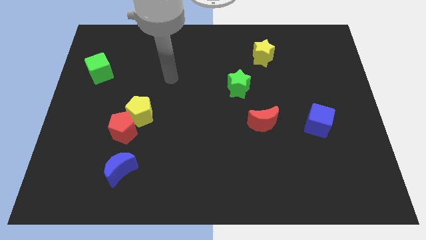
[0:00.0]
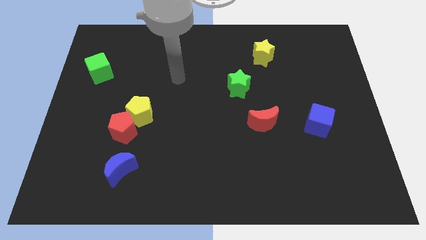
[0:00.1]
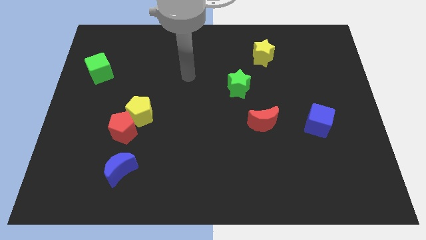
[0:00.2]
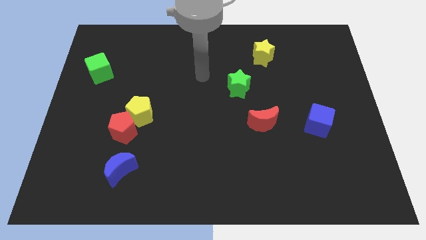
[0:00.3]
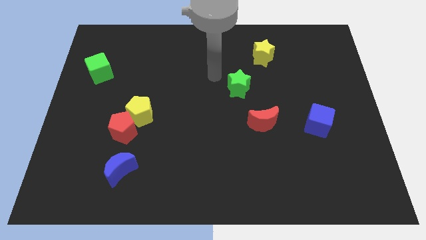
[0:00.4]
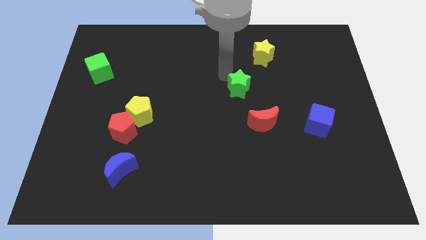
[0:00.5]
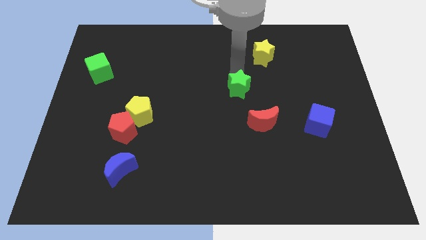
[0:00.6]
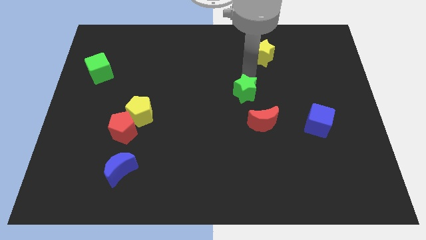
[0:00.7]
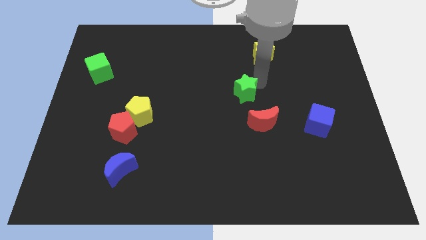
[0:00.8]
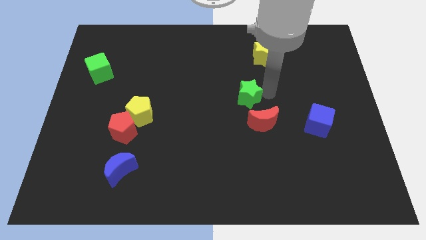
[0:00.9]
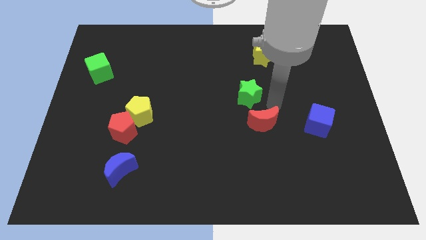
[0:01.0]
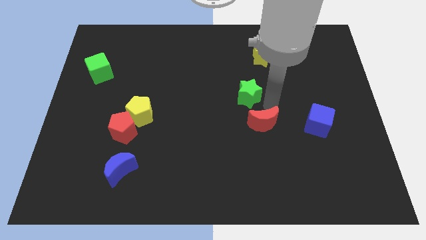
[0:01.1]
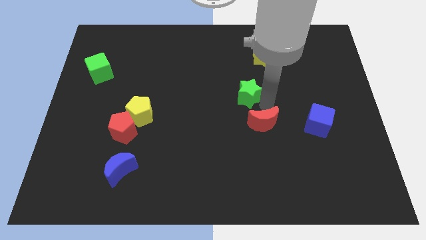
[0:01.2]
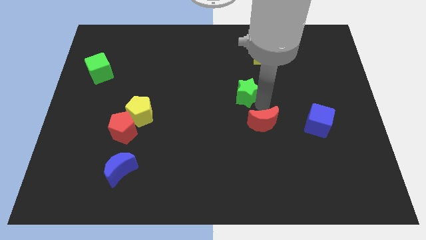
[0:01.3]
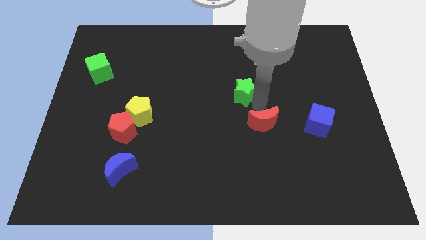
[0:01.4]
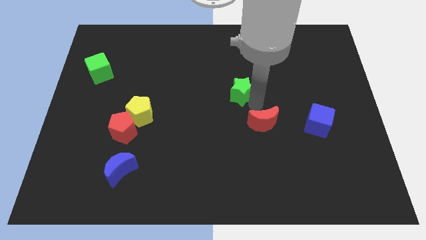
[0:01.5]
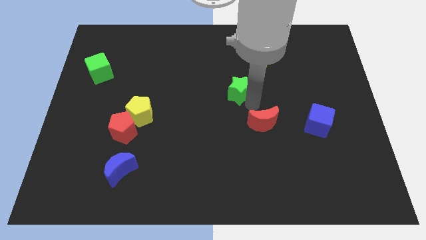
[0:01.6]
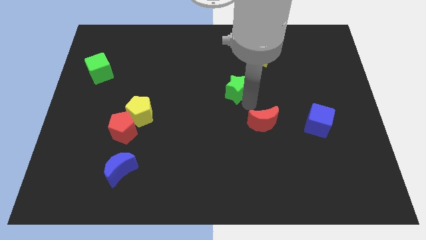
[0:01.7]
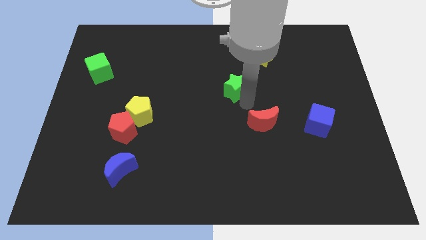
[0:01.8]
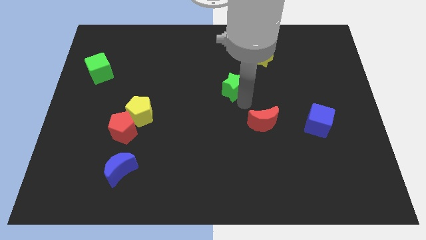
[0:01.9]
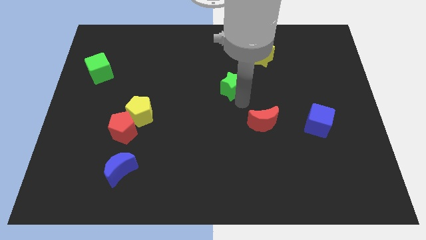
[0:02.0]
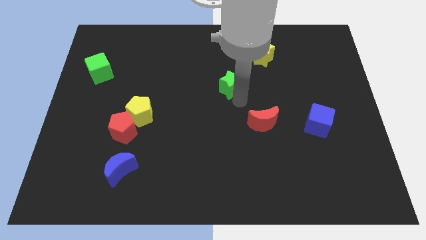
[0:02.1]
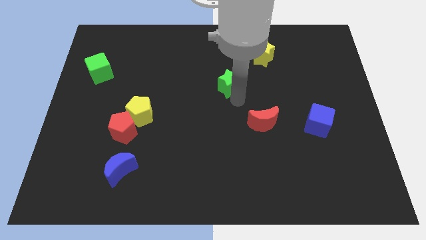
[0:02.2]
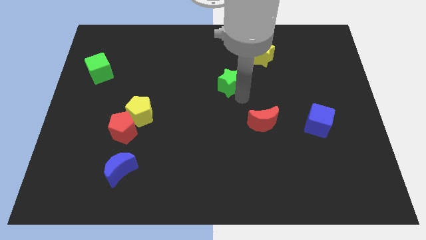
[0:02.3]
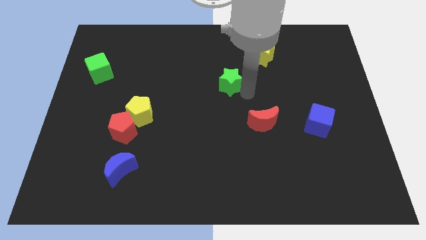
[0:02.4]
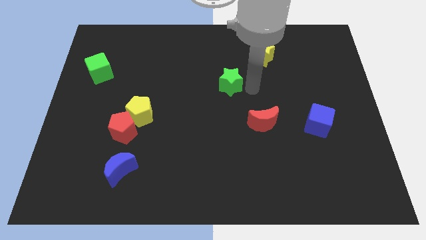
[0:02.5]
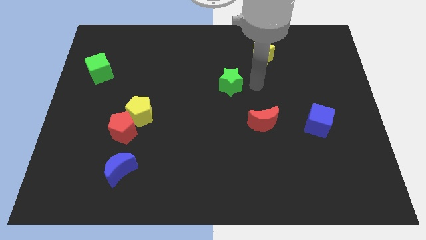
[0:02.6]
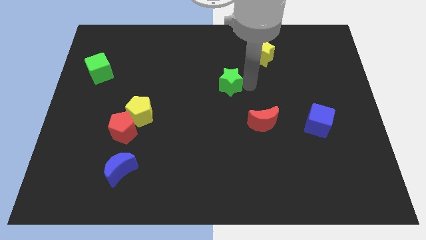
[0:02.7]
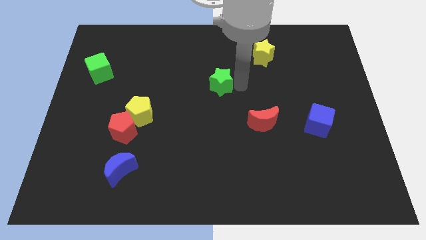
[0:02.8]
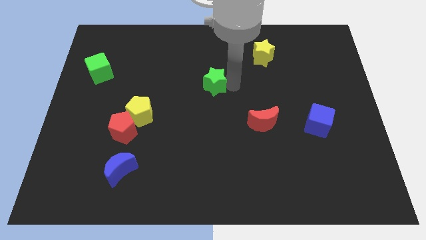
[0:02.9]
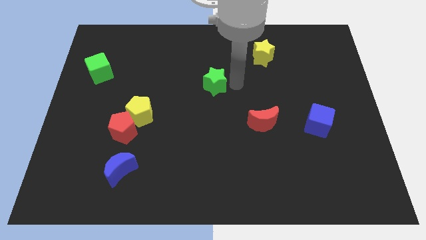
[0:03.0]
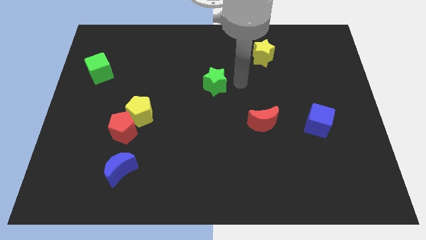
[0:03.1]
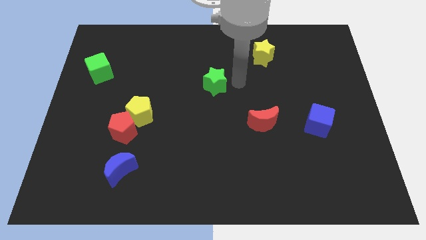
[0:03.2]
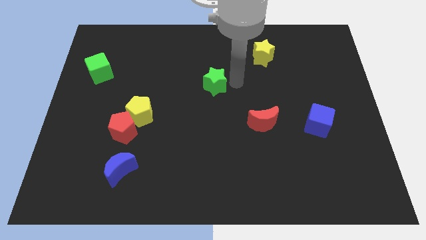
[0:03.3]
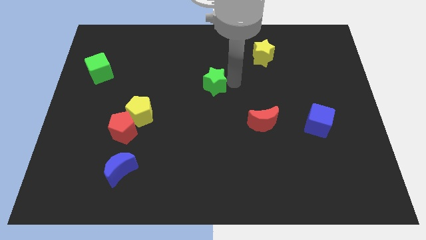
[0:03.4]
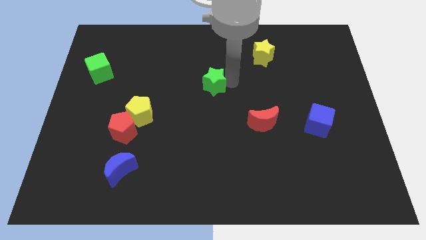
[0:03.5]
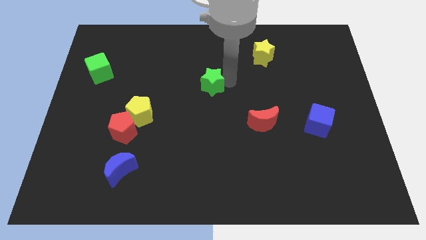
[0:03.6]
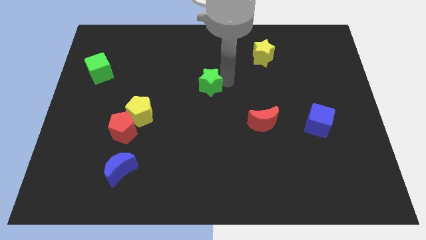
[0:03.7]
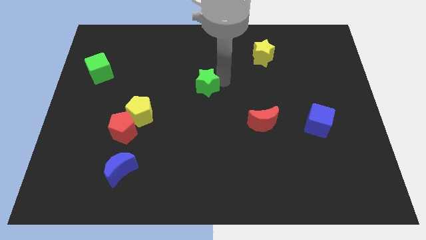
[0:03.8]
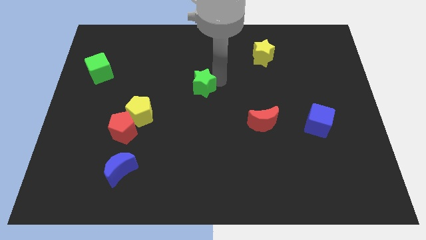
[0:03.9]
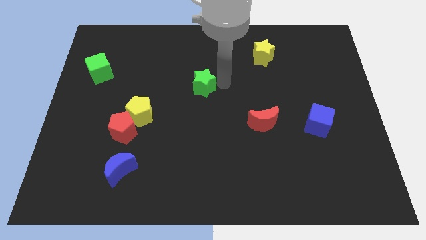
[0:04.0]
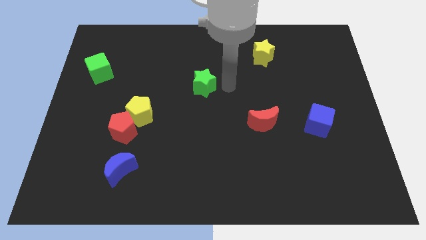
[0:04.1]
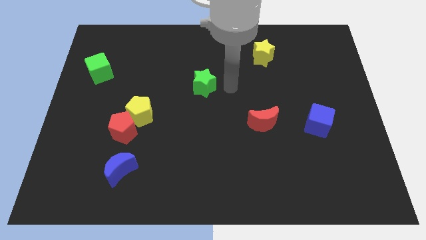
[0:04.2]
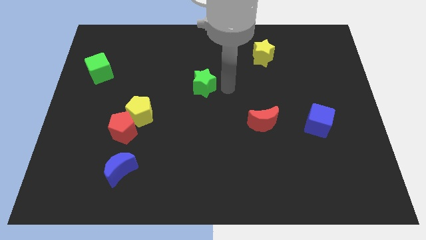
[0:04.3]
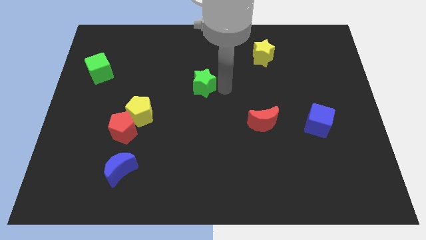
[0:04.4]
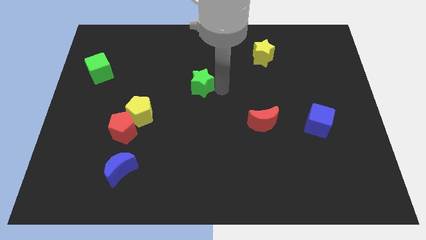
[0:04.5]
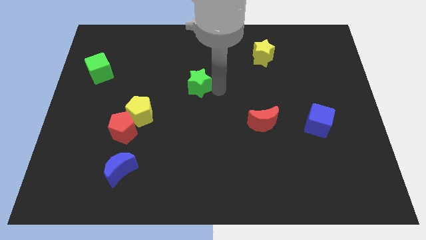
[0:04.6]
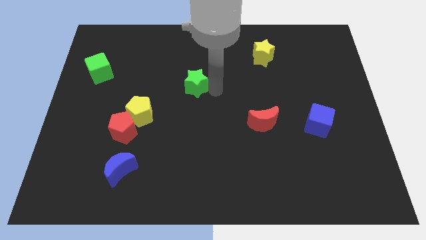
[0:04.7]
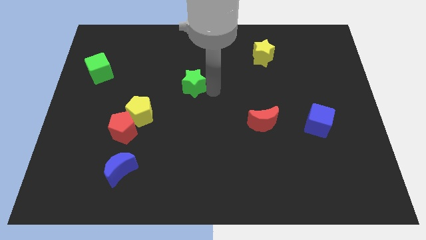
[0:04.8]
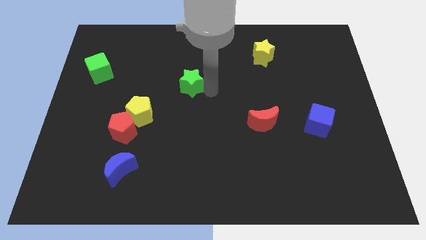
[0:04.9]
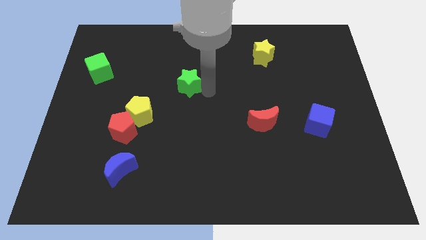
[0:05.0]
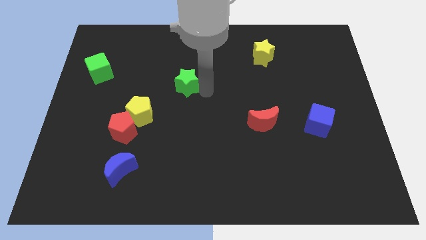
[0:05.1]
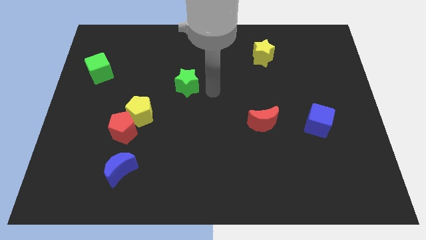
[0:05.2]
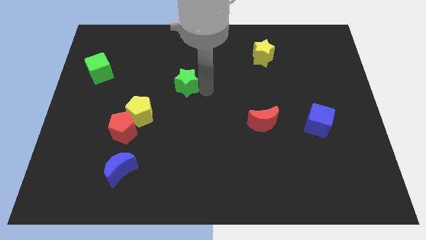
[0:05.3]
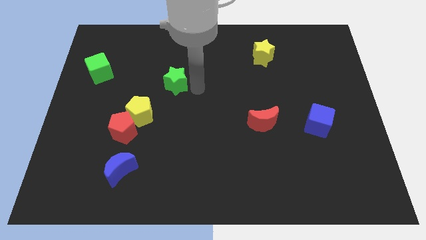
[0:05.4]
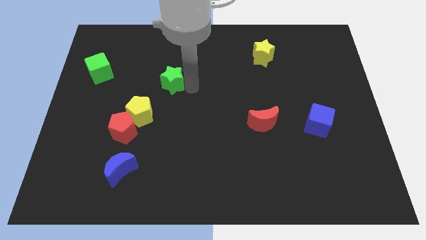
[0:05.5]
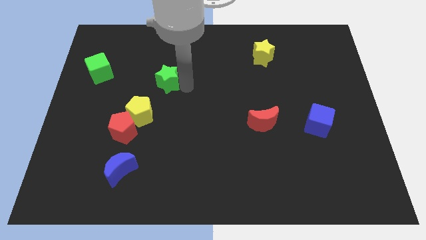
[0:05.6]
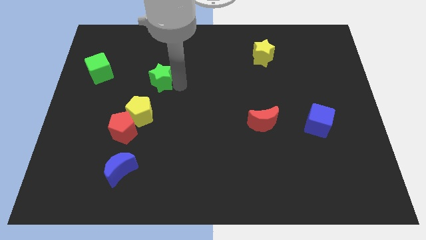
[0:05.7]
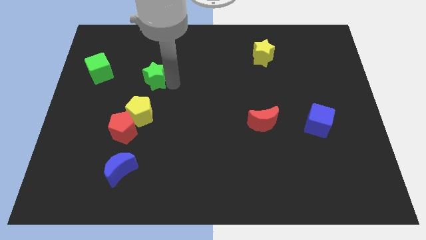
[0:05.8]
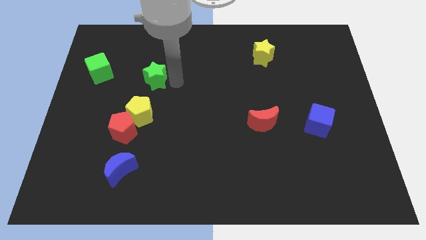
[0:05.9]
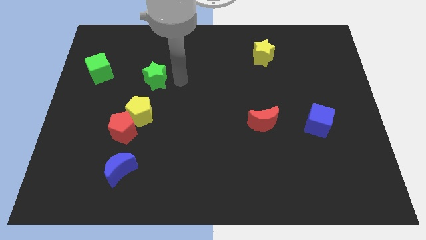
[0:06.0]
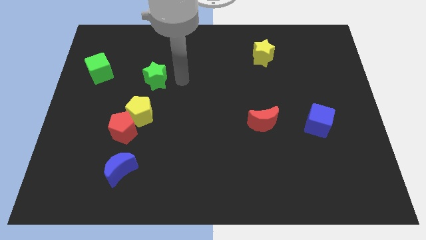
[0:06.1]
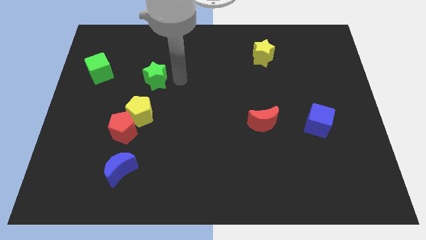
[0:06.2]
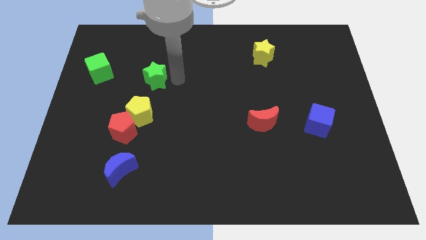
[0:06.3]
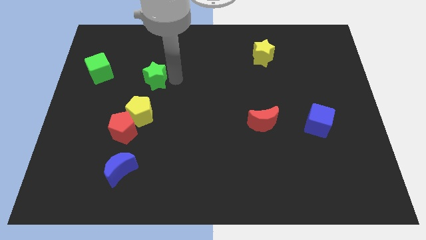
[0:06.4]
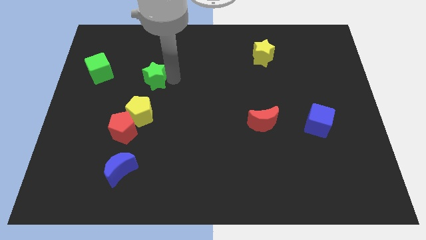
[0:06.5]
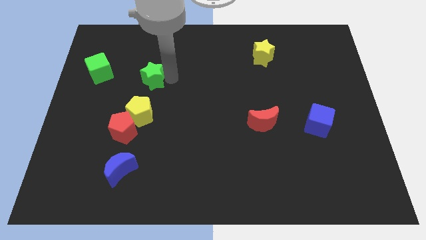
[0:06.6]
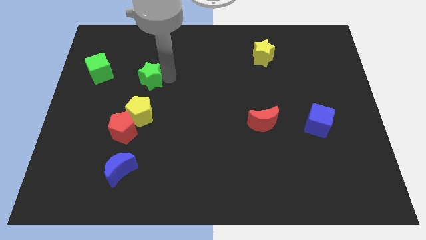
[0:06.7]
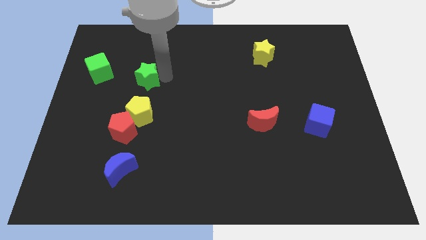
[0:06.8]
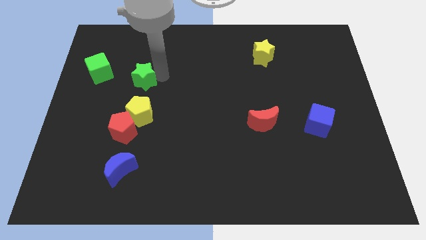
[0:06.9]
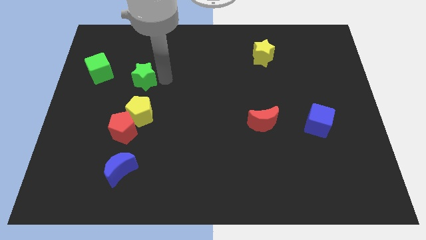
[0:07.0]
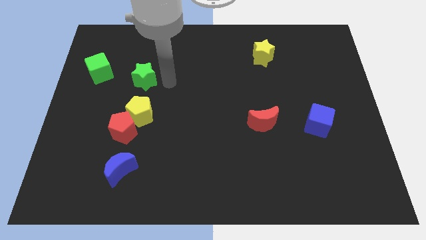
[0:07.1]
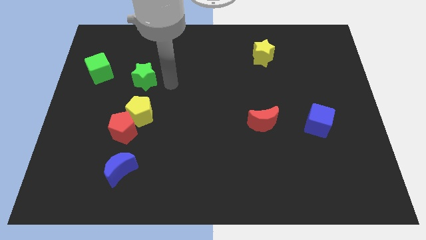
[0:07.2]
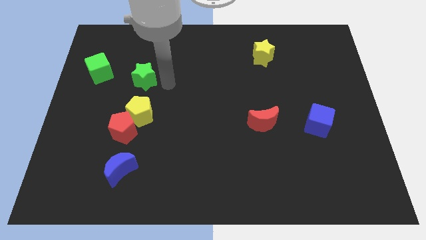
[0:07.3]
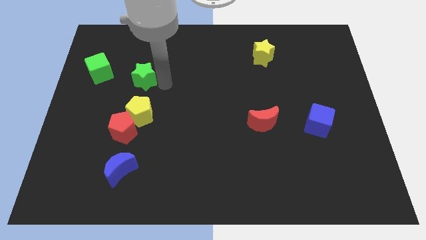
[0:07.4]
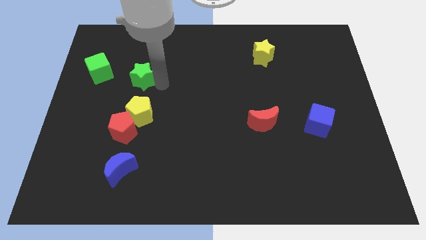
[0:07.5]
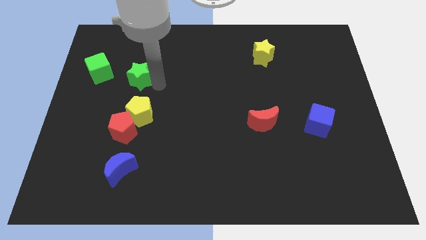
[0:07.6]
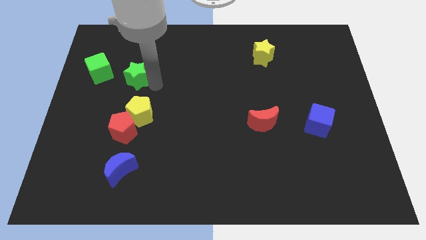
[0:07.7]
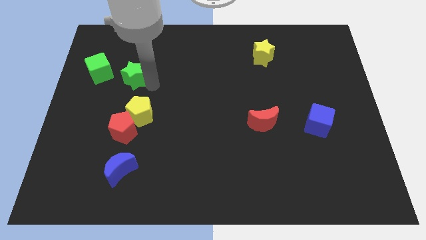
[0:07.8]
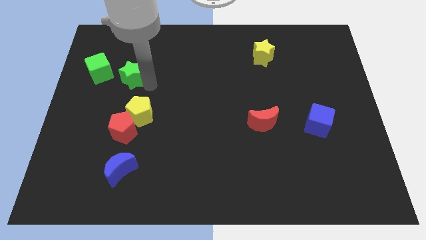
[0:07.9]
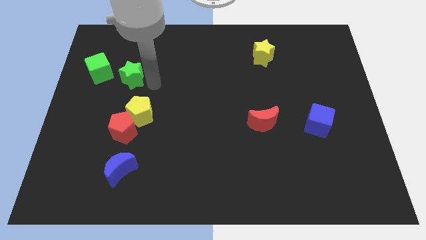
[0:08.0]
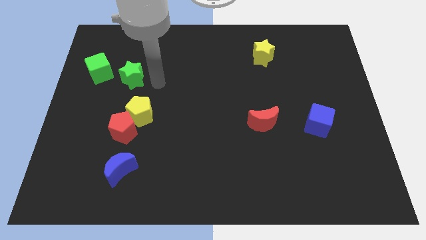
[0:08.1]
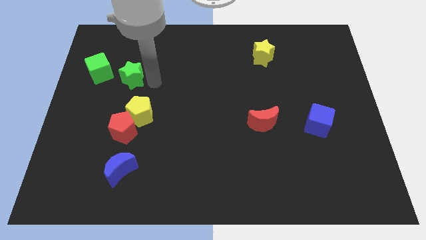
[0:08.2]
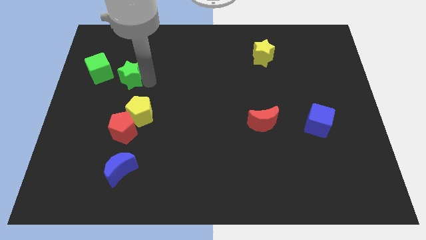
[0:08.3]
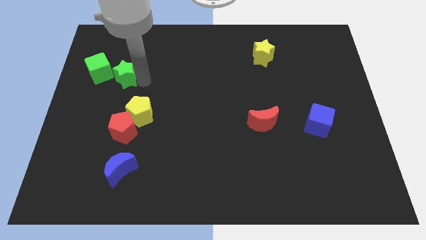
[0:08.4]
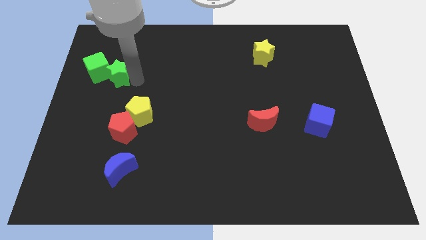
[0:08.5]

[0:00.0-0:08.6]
put the green star next to the green cube
